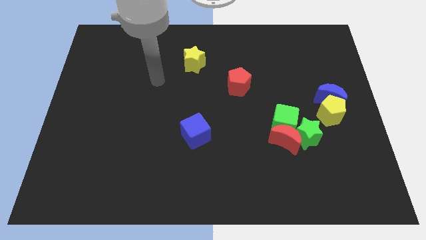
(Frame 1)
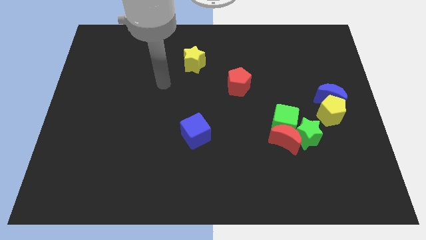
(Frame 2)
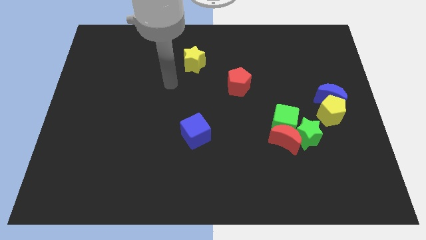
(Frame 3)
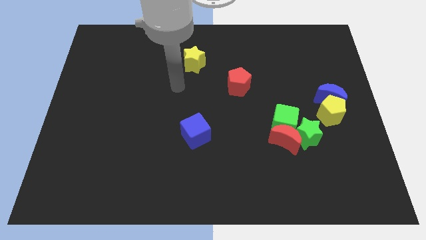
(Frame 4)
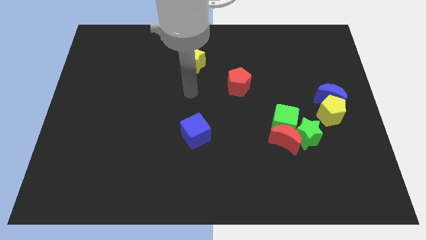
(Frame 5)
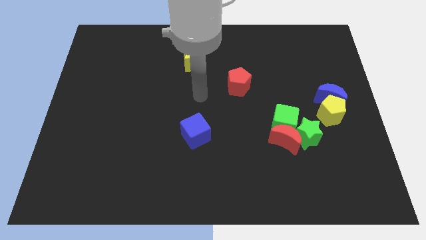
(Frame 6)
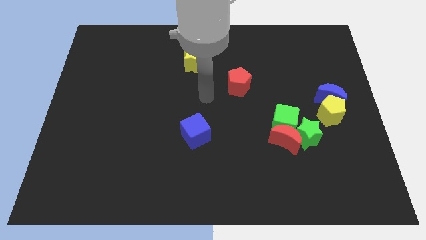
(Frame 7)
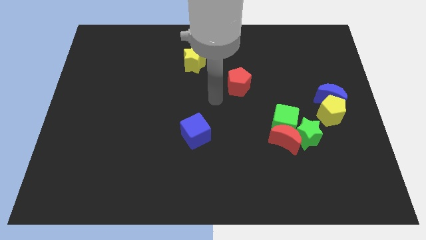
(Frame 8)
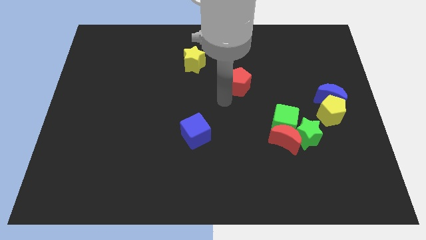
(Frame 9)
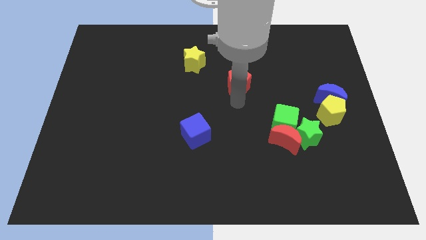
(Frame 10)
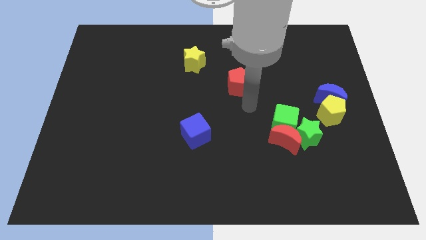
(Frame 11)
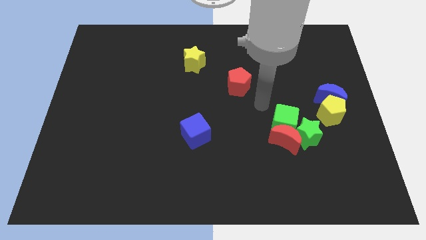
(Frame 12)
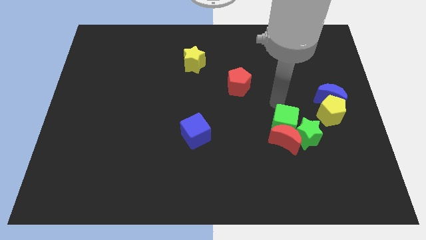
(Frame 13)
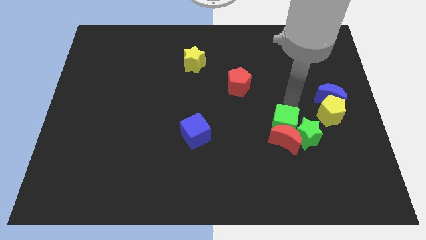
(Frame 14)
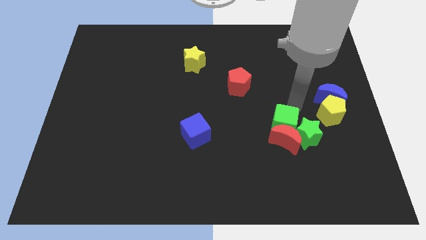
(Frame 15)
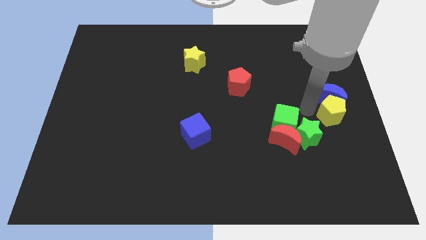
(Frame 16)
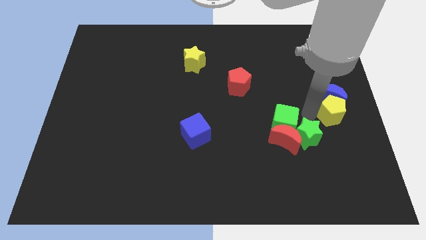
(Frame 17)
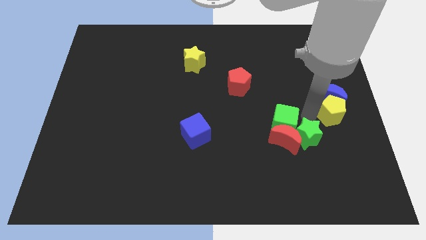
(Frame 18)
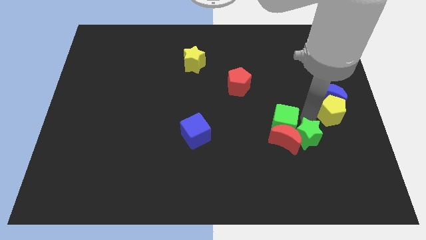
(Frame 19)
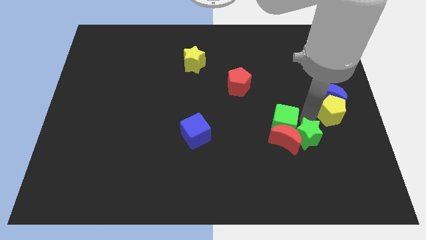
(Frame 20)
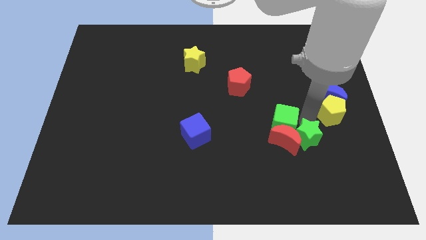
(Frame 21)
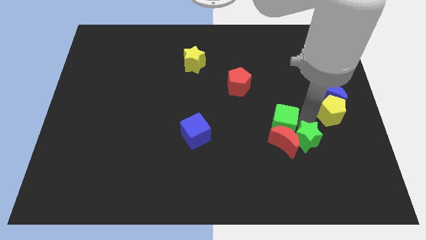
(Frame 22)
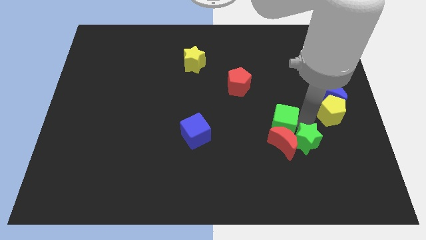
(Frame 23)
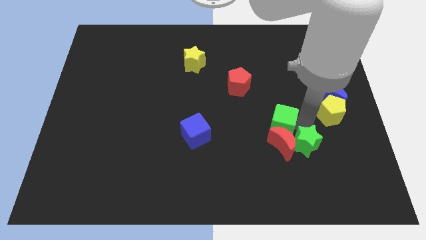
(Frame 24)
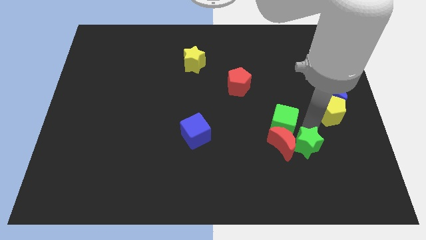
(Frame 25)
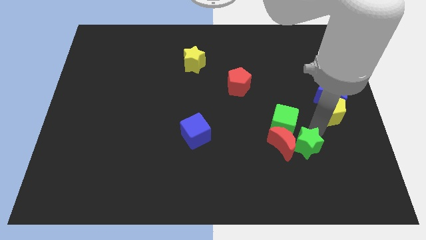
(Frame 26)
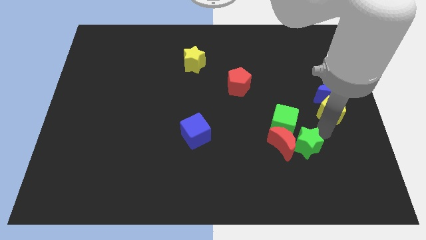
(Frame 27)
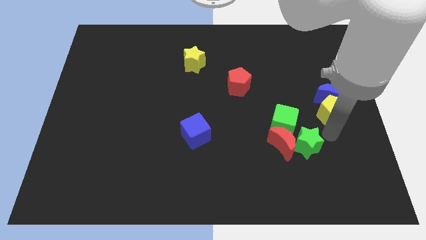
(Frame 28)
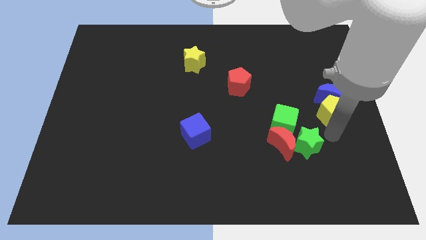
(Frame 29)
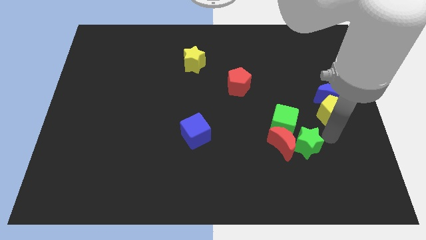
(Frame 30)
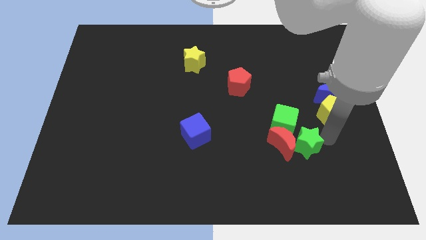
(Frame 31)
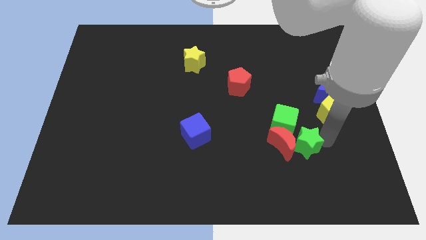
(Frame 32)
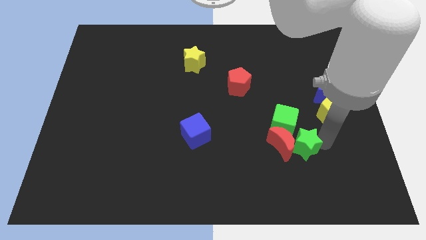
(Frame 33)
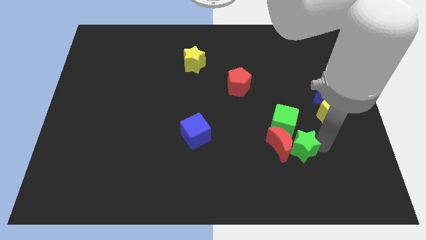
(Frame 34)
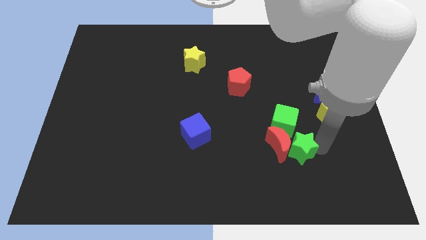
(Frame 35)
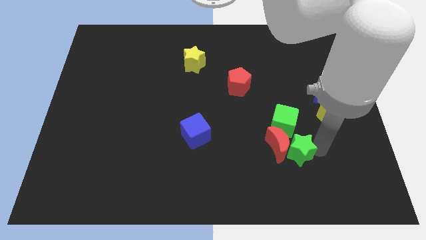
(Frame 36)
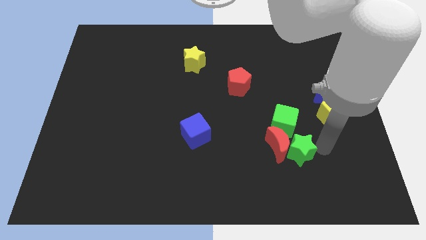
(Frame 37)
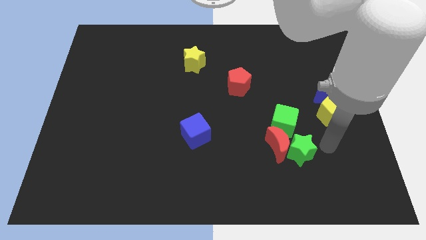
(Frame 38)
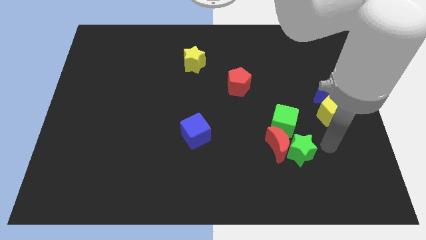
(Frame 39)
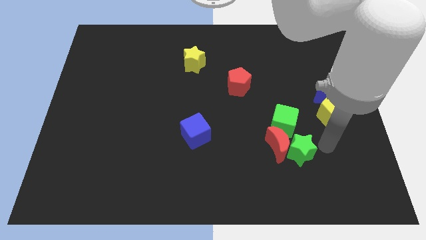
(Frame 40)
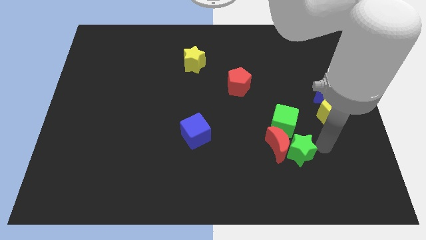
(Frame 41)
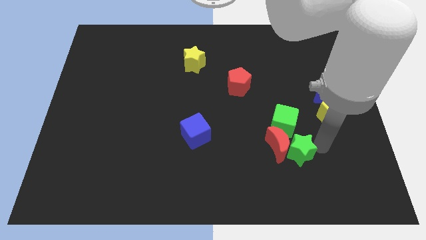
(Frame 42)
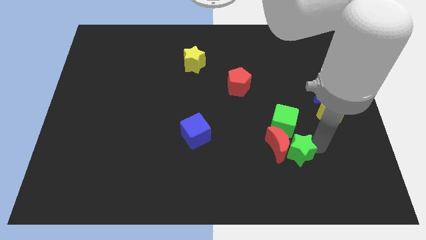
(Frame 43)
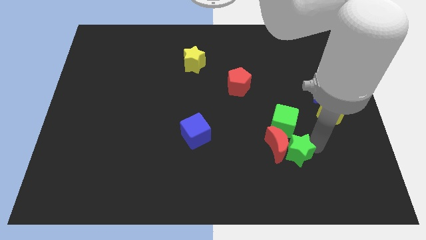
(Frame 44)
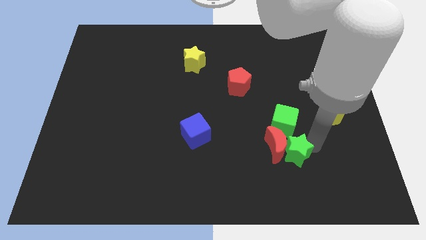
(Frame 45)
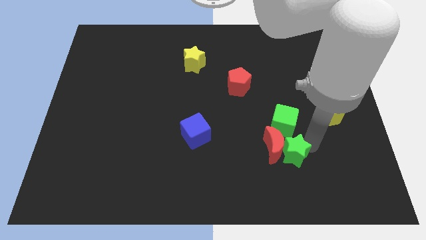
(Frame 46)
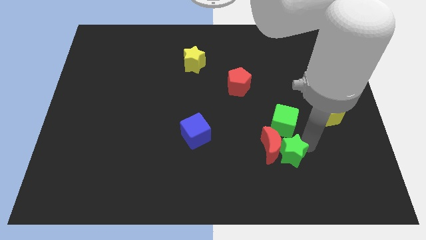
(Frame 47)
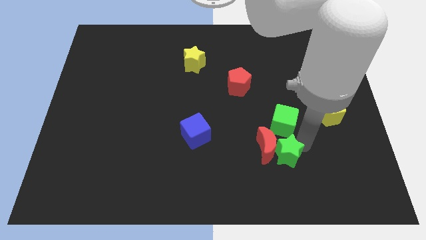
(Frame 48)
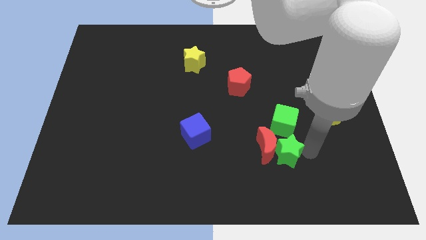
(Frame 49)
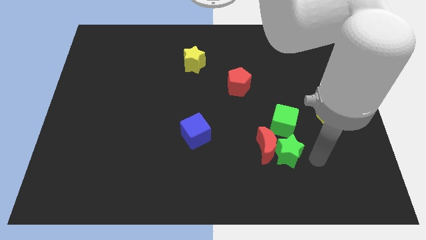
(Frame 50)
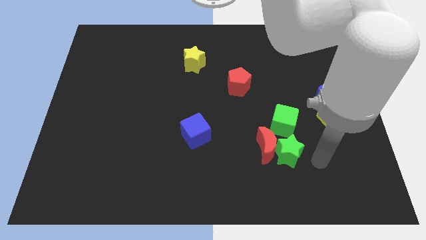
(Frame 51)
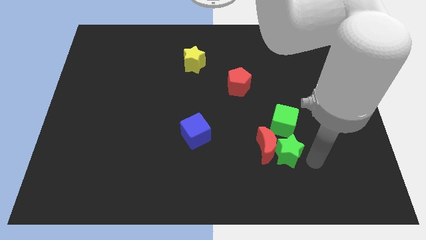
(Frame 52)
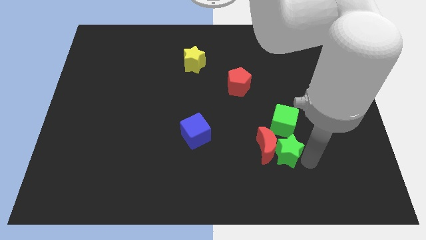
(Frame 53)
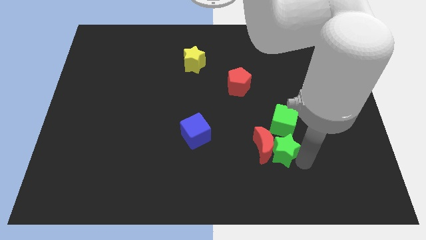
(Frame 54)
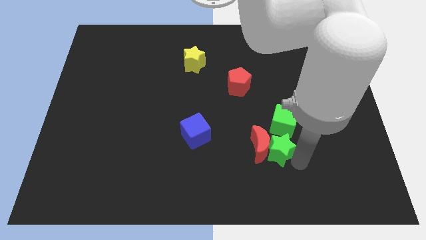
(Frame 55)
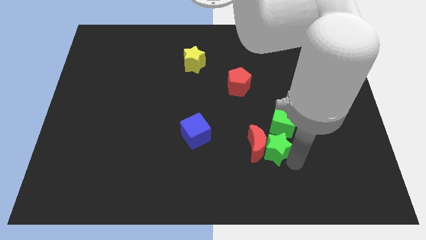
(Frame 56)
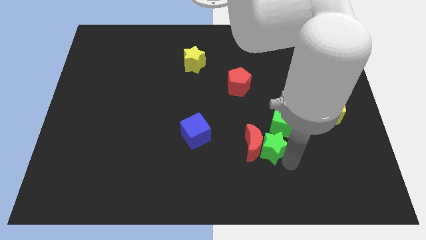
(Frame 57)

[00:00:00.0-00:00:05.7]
push the green star to the left slightly

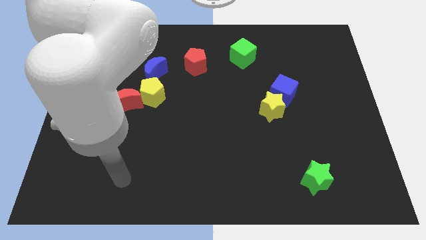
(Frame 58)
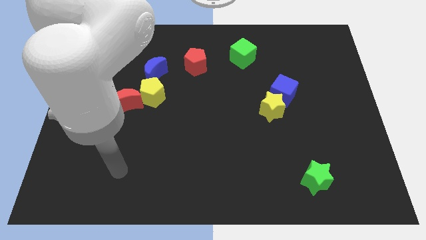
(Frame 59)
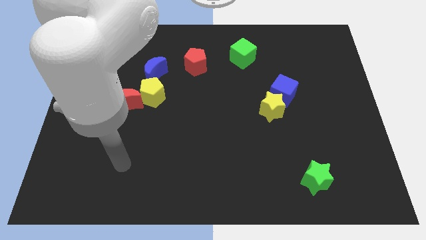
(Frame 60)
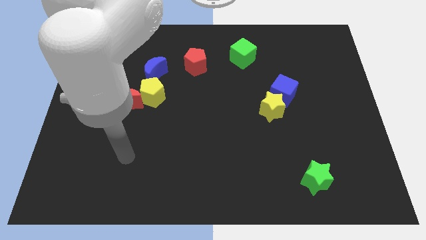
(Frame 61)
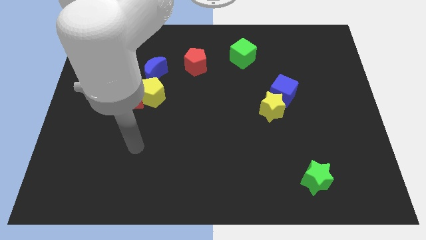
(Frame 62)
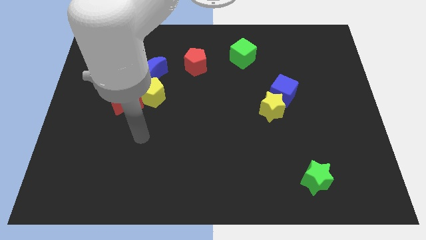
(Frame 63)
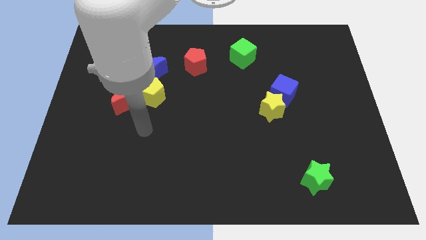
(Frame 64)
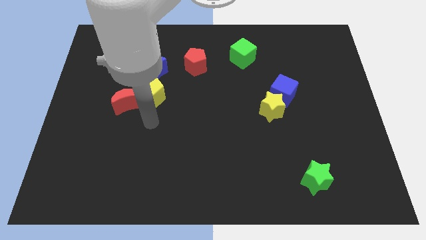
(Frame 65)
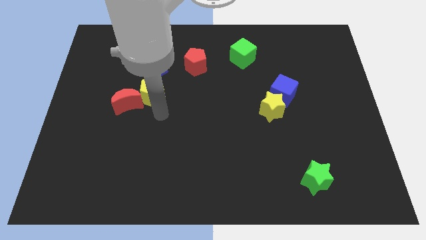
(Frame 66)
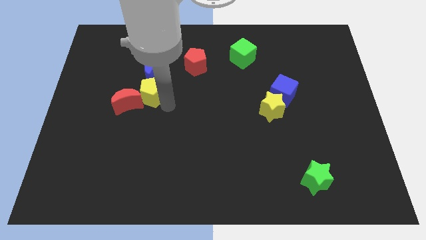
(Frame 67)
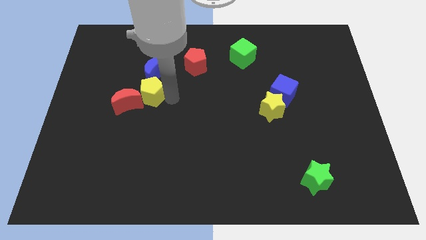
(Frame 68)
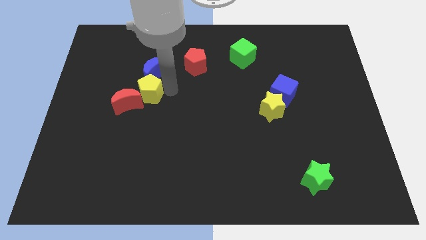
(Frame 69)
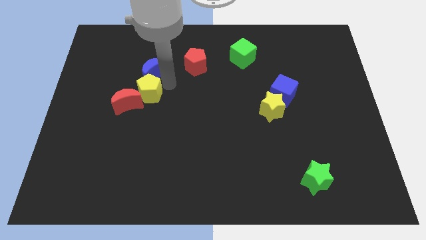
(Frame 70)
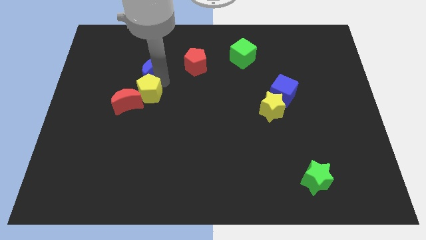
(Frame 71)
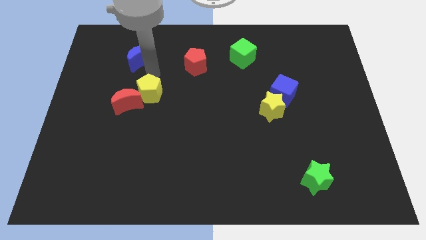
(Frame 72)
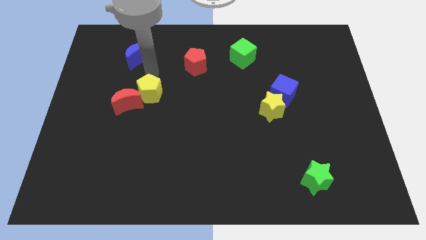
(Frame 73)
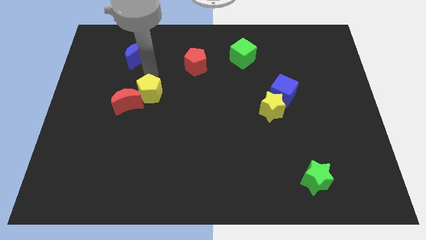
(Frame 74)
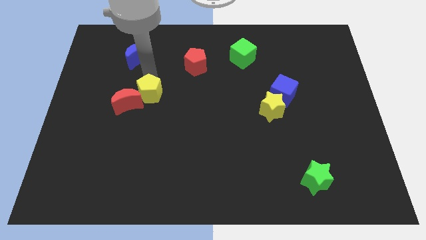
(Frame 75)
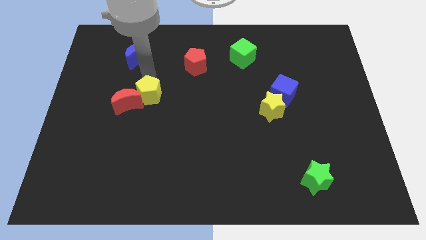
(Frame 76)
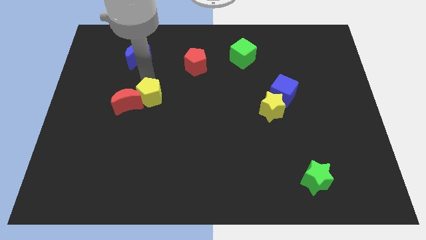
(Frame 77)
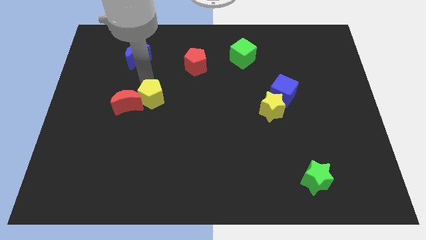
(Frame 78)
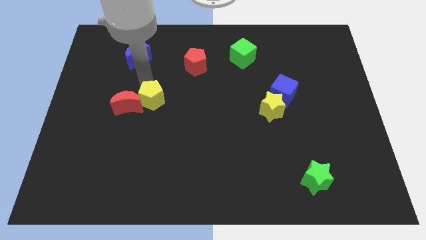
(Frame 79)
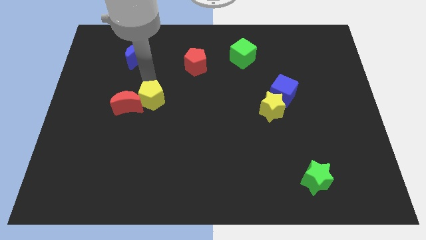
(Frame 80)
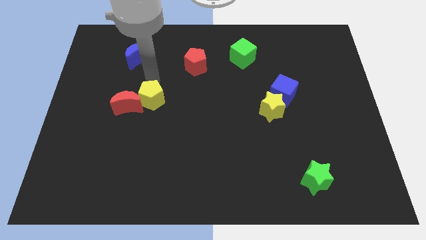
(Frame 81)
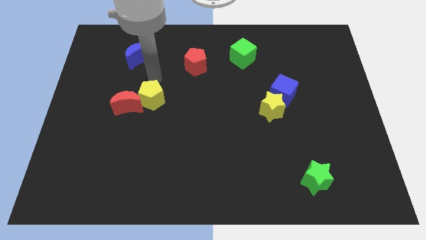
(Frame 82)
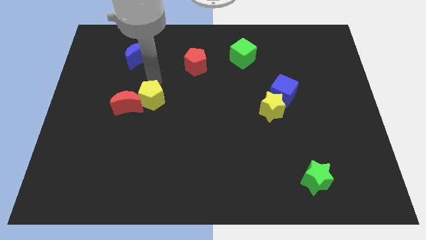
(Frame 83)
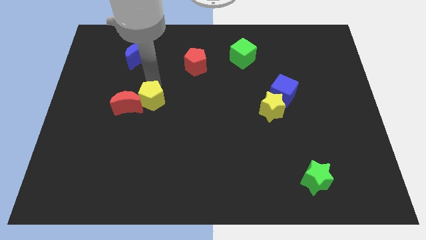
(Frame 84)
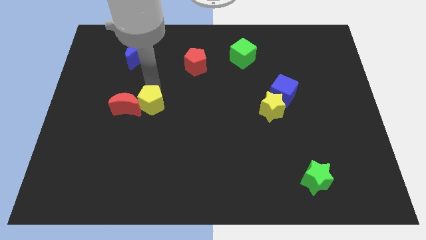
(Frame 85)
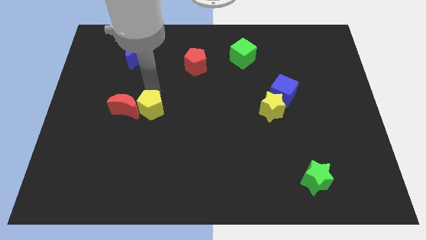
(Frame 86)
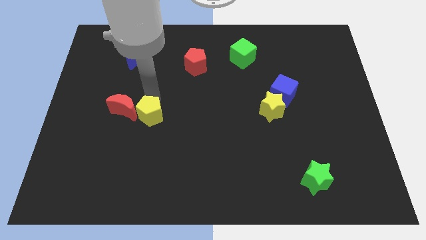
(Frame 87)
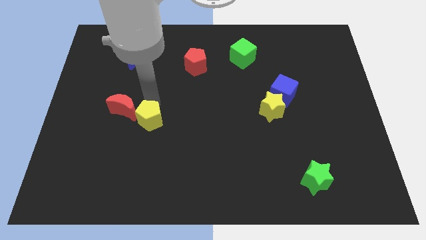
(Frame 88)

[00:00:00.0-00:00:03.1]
slide the yellow pentagon a bit downwards
